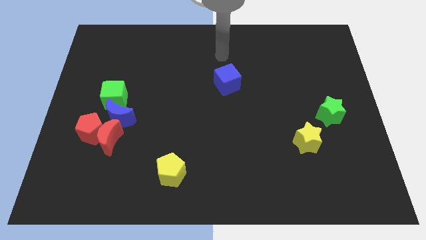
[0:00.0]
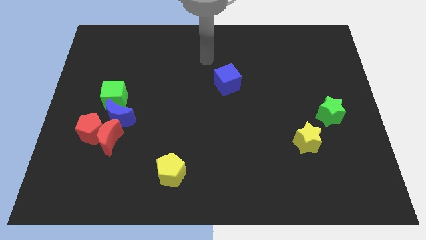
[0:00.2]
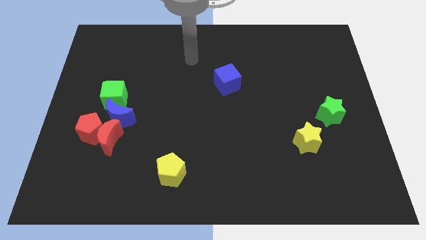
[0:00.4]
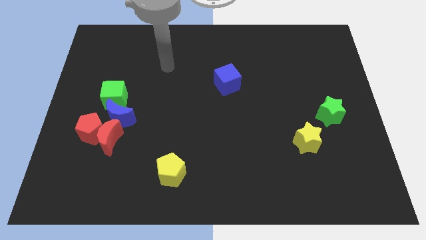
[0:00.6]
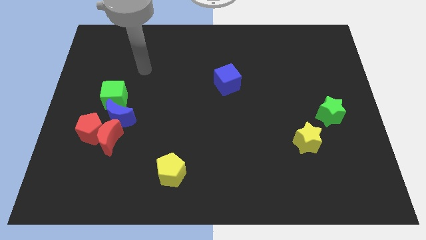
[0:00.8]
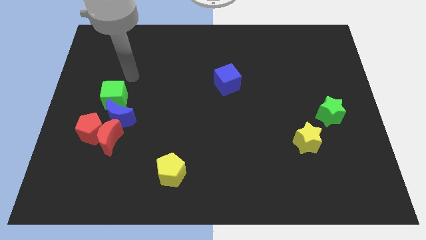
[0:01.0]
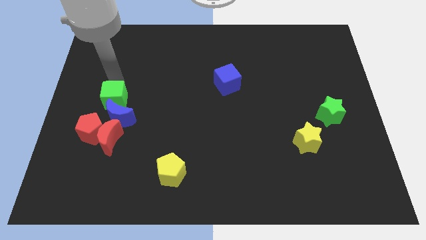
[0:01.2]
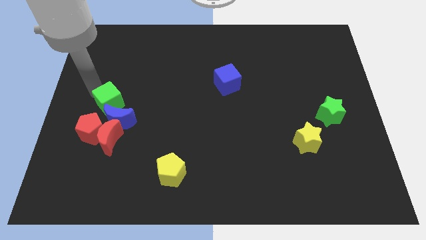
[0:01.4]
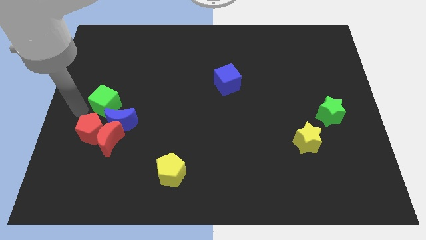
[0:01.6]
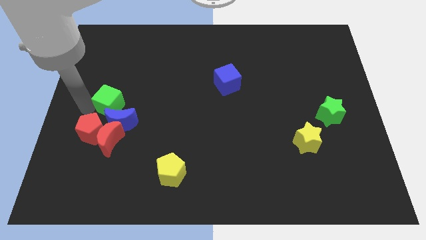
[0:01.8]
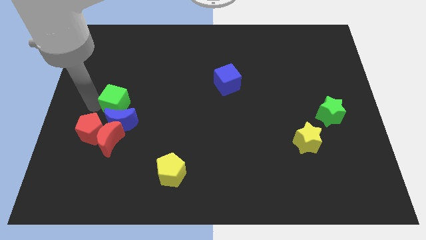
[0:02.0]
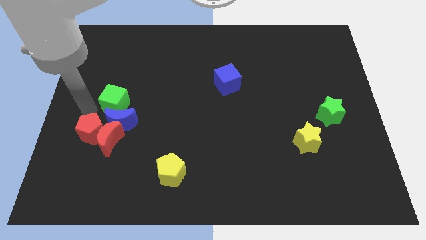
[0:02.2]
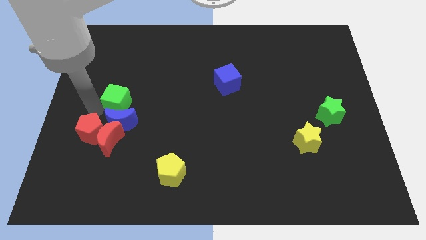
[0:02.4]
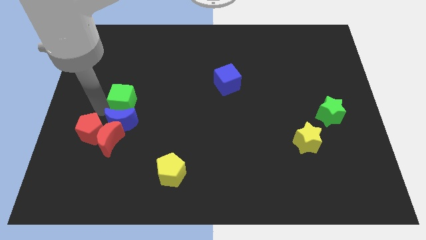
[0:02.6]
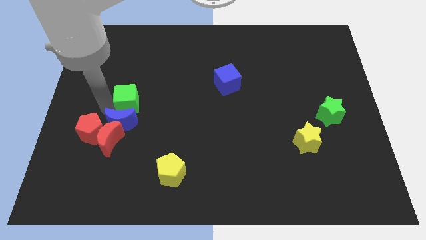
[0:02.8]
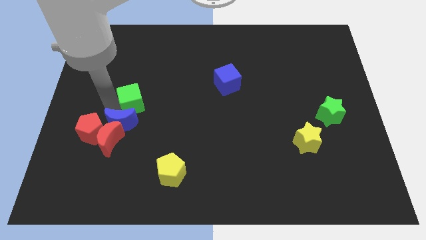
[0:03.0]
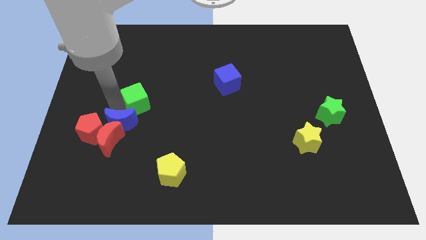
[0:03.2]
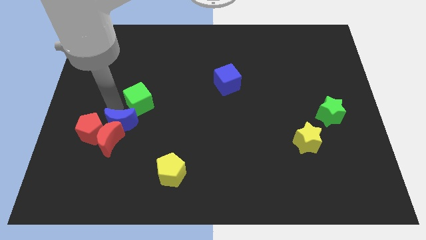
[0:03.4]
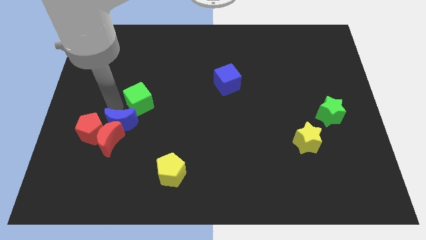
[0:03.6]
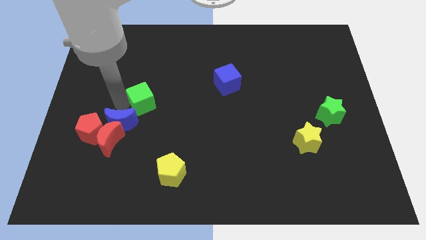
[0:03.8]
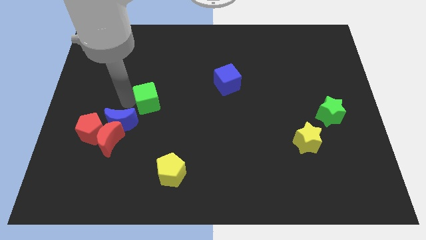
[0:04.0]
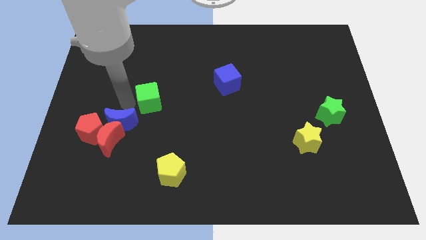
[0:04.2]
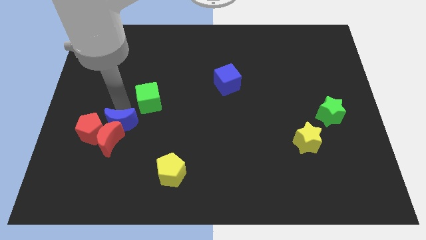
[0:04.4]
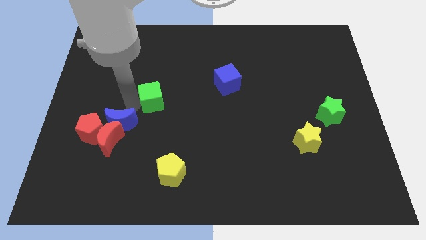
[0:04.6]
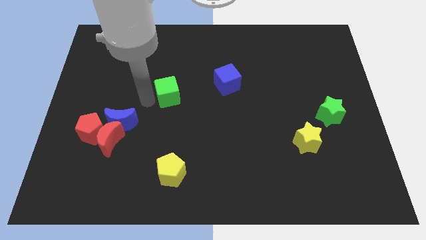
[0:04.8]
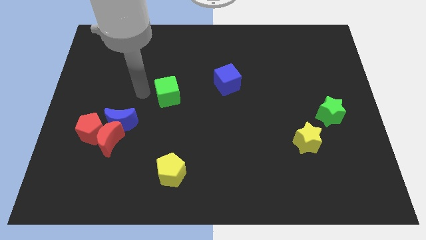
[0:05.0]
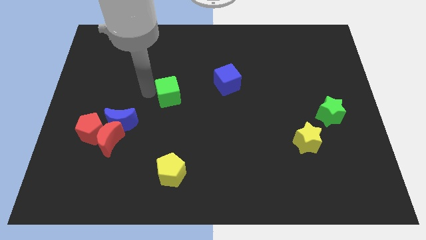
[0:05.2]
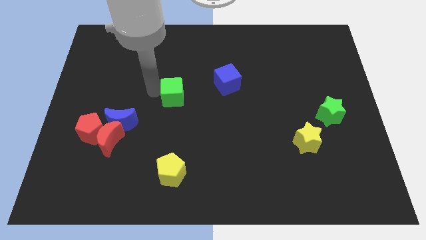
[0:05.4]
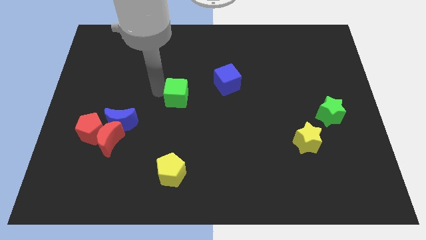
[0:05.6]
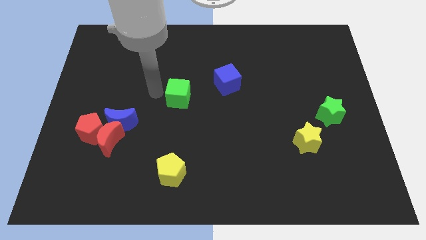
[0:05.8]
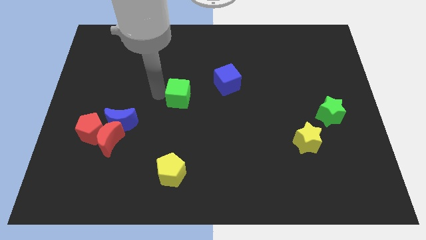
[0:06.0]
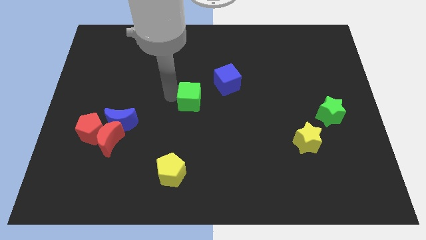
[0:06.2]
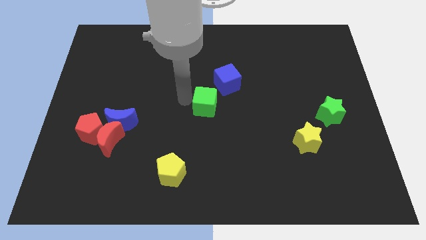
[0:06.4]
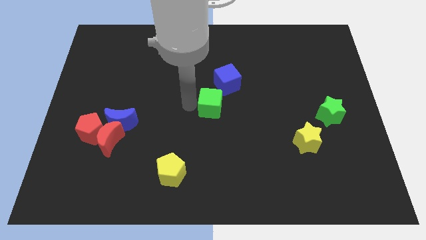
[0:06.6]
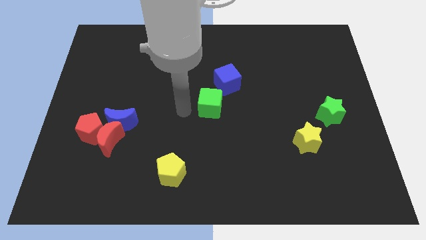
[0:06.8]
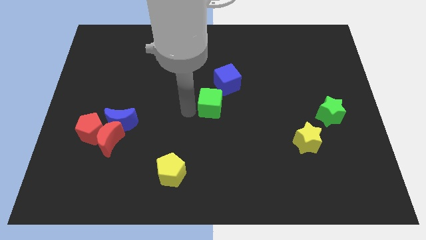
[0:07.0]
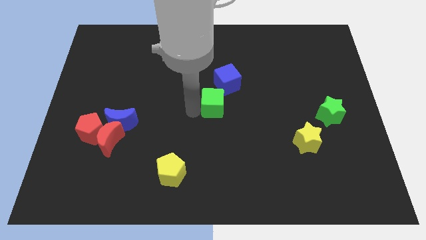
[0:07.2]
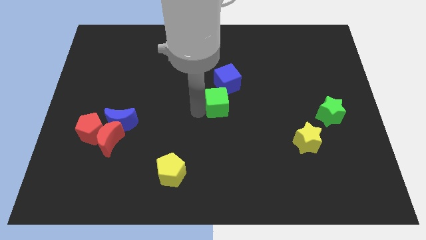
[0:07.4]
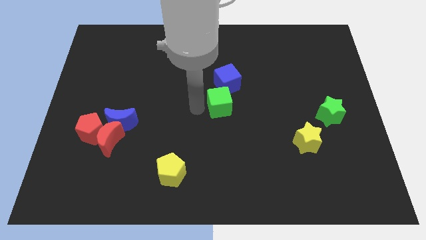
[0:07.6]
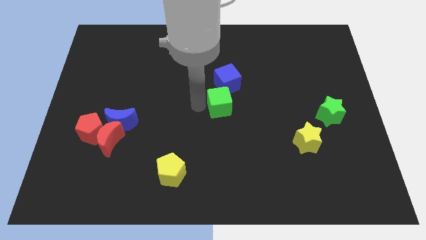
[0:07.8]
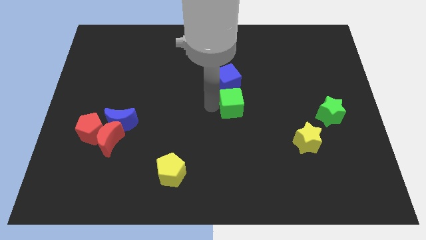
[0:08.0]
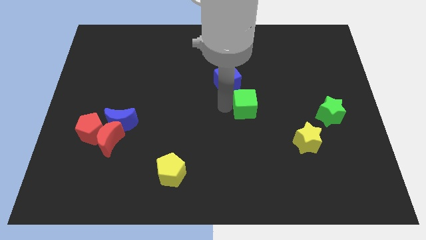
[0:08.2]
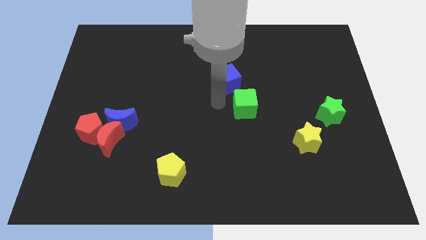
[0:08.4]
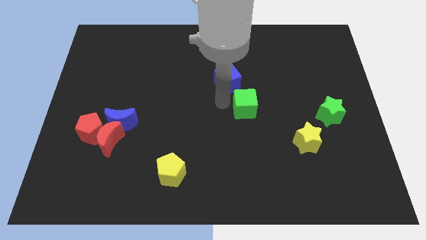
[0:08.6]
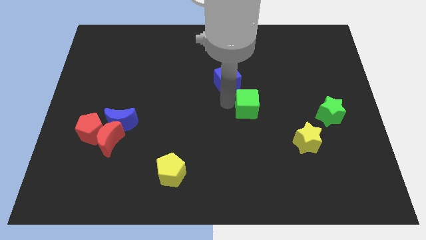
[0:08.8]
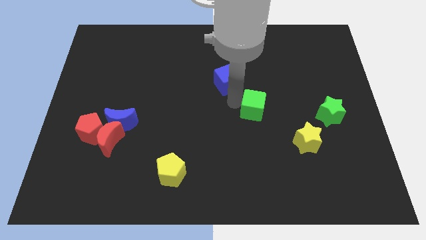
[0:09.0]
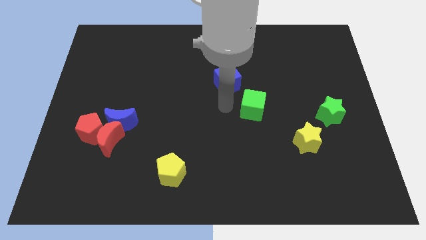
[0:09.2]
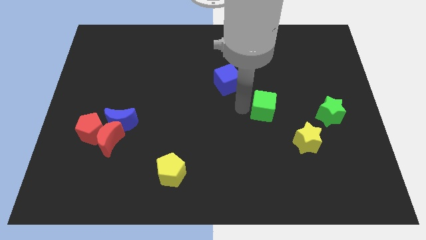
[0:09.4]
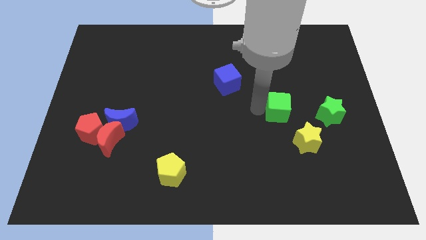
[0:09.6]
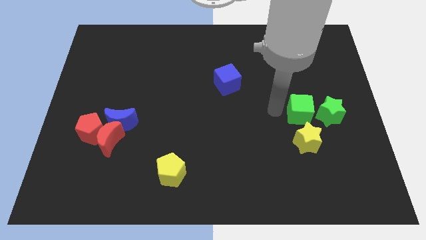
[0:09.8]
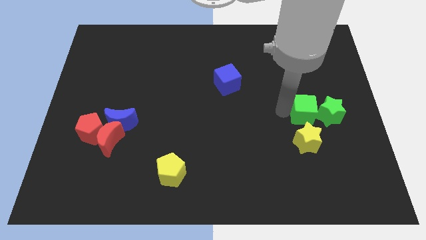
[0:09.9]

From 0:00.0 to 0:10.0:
move the green cube towards the green star

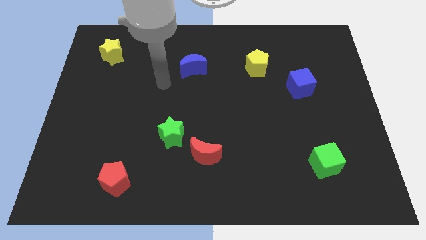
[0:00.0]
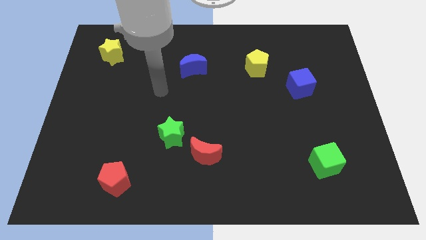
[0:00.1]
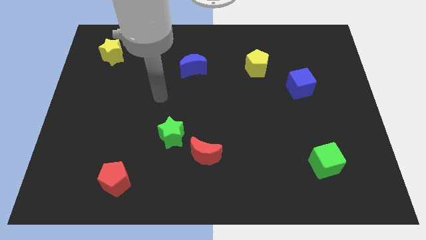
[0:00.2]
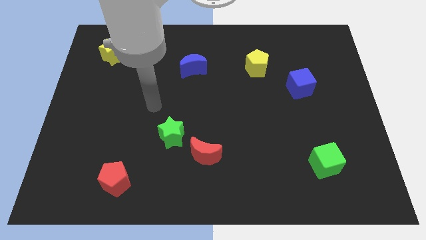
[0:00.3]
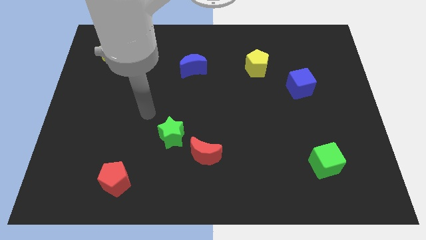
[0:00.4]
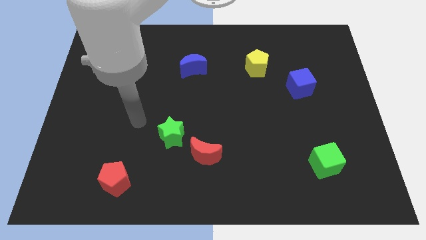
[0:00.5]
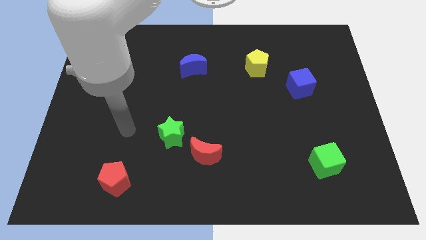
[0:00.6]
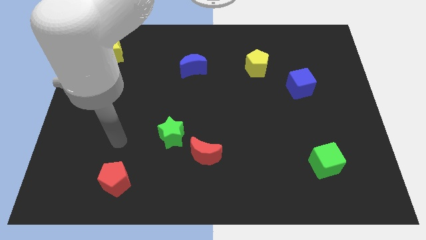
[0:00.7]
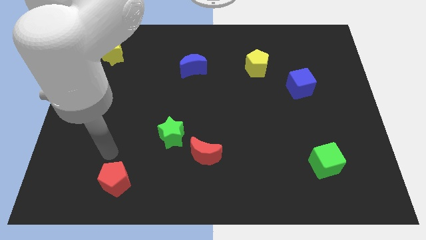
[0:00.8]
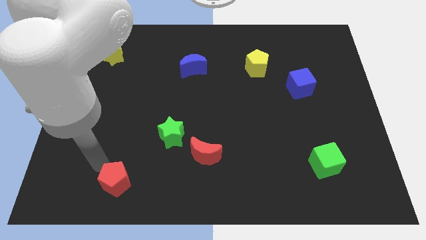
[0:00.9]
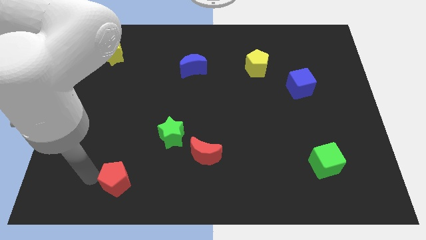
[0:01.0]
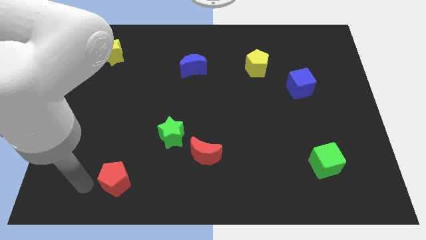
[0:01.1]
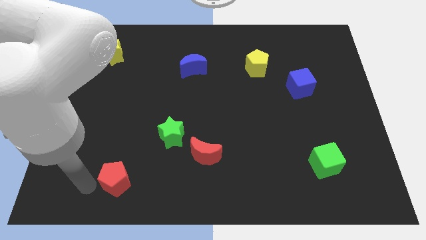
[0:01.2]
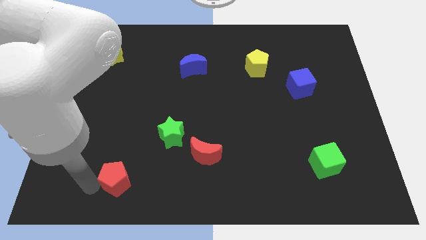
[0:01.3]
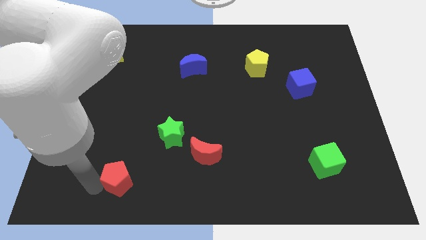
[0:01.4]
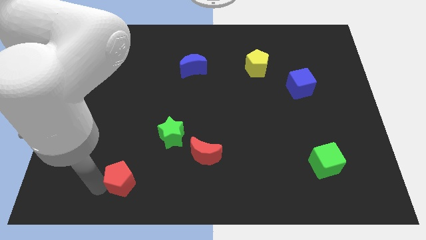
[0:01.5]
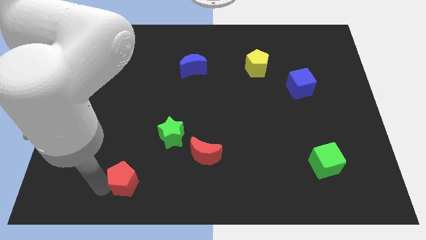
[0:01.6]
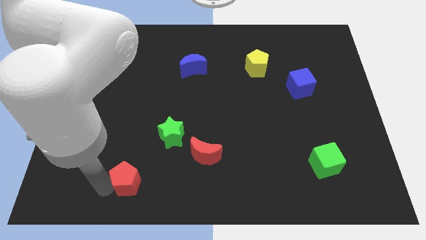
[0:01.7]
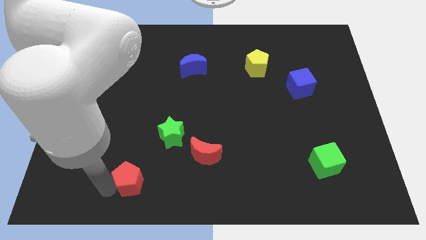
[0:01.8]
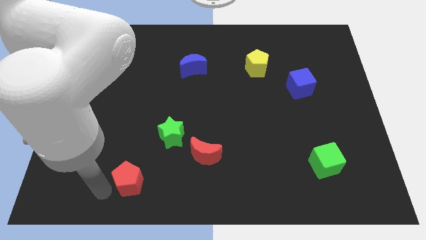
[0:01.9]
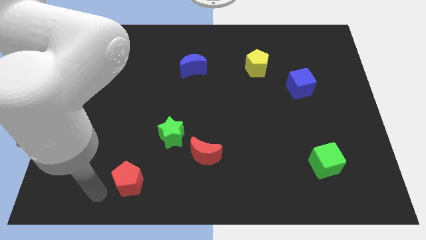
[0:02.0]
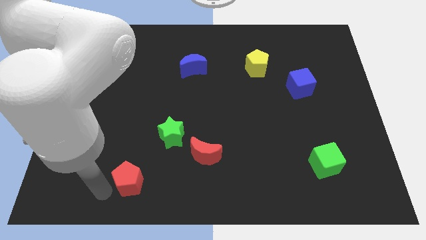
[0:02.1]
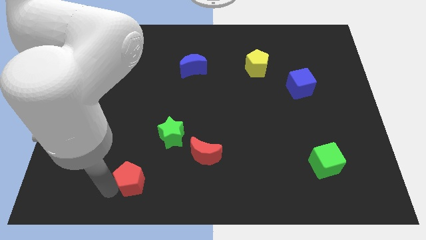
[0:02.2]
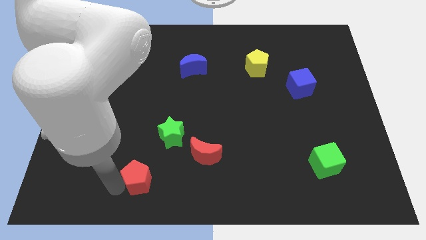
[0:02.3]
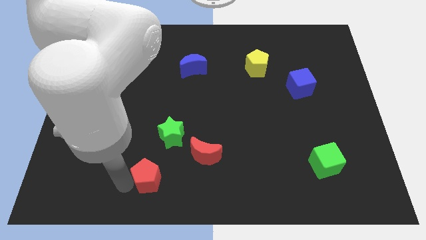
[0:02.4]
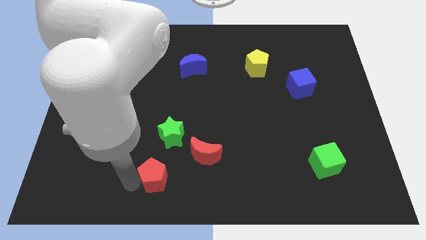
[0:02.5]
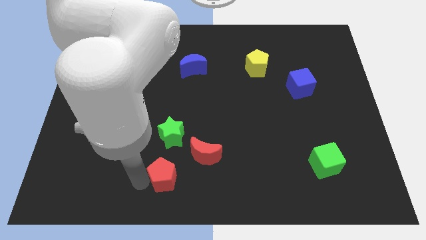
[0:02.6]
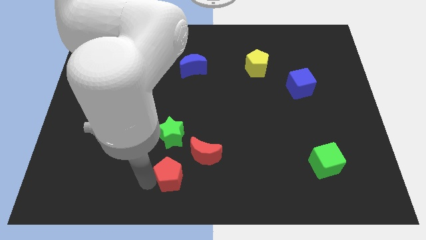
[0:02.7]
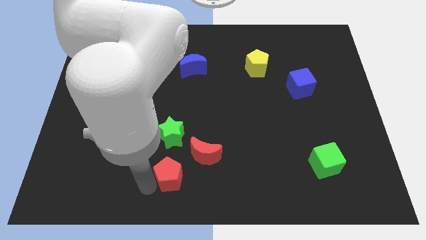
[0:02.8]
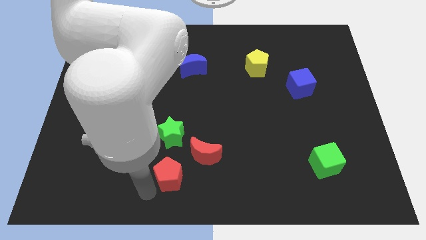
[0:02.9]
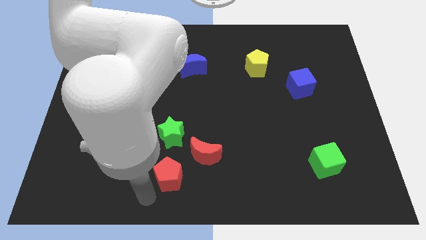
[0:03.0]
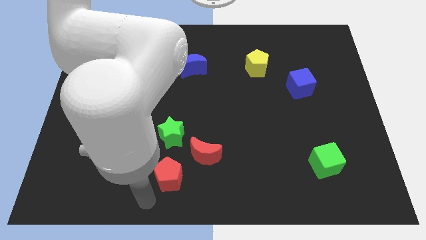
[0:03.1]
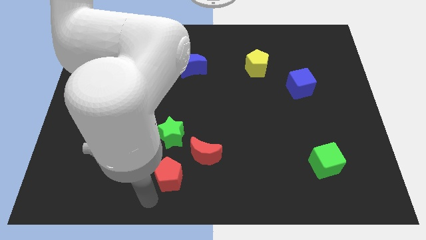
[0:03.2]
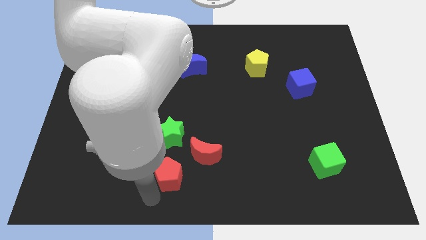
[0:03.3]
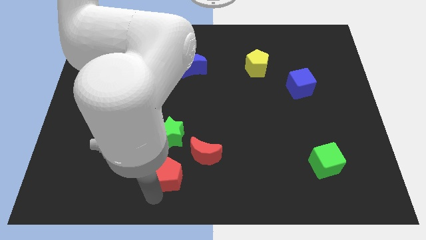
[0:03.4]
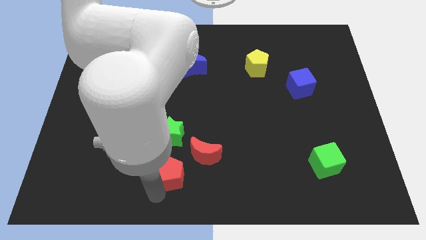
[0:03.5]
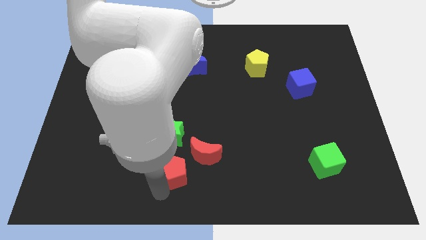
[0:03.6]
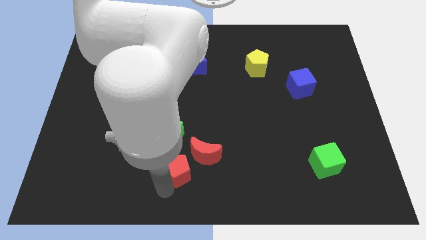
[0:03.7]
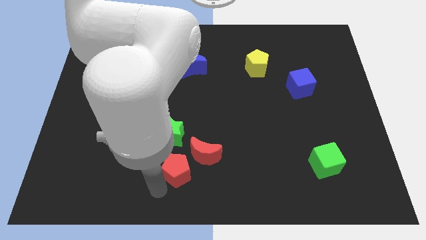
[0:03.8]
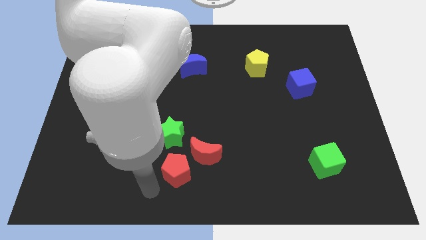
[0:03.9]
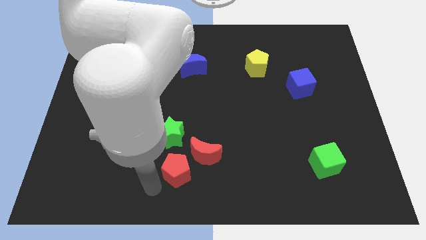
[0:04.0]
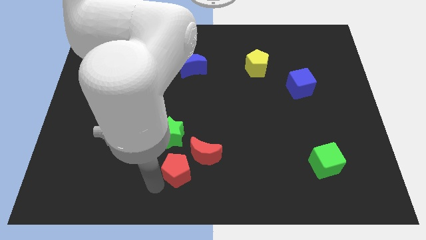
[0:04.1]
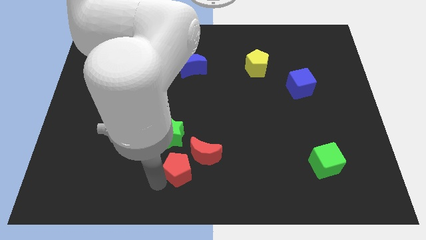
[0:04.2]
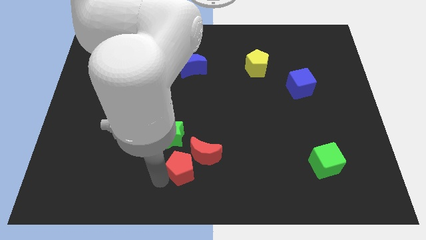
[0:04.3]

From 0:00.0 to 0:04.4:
put the red pentagon next to the red moon
